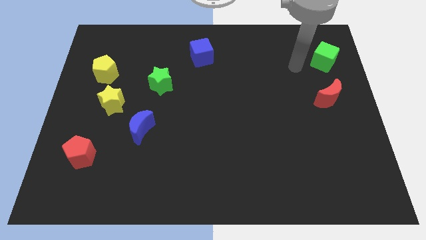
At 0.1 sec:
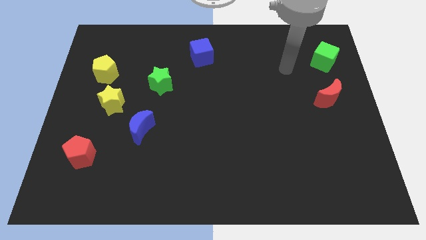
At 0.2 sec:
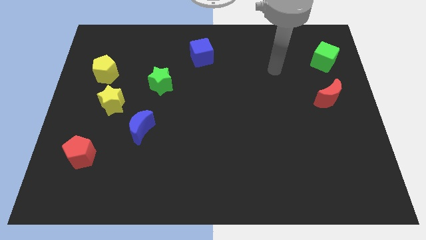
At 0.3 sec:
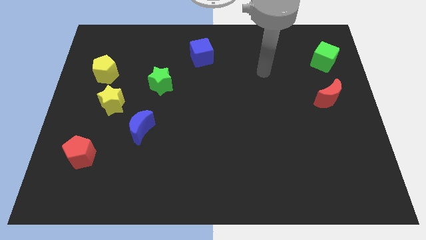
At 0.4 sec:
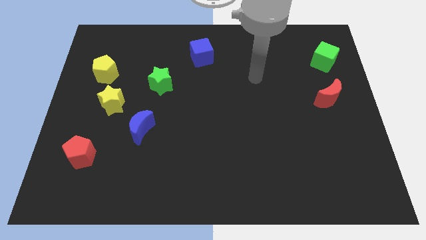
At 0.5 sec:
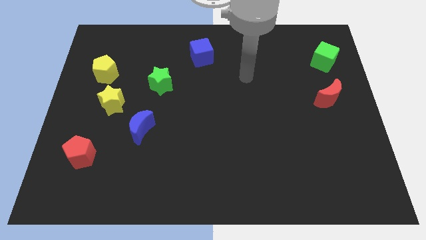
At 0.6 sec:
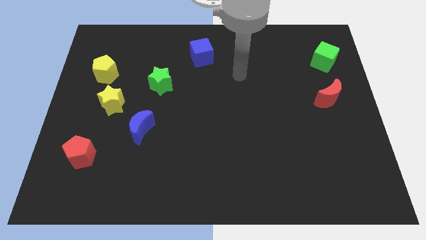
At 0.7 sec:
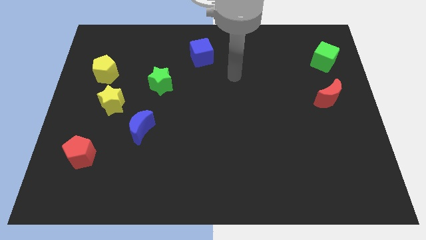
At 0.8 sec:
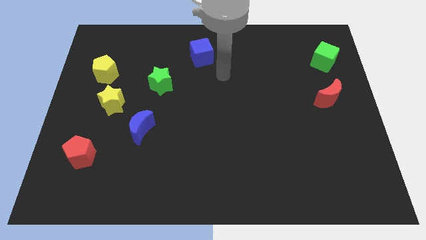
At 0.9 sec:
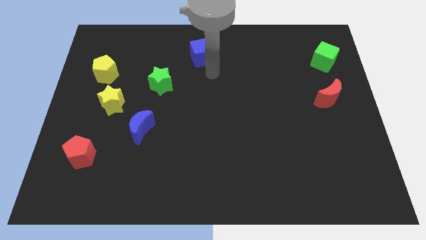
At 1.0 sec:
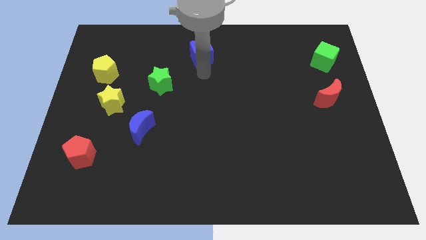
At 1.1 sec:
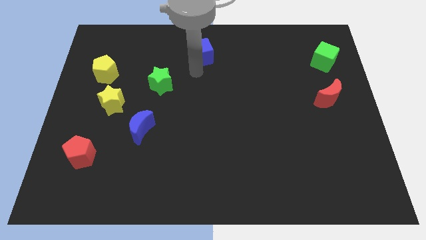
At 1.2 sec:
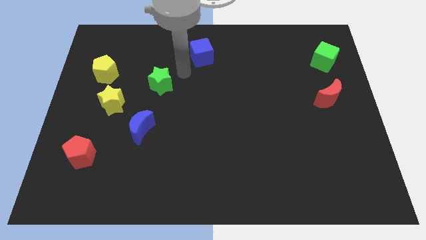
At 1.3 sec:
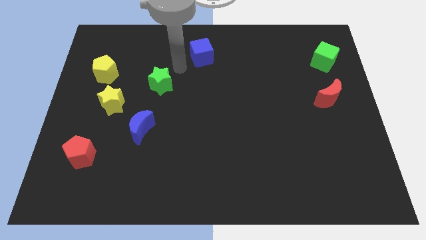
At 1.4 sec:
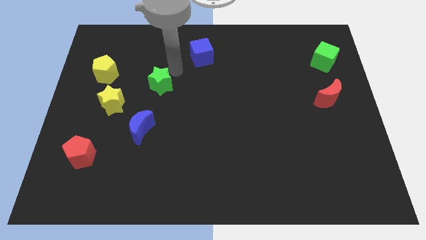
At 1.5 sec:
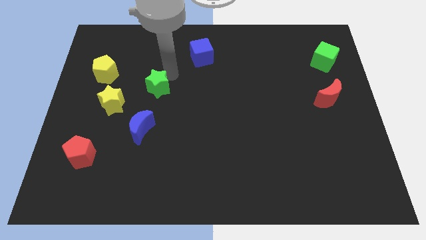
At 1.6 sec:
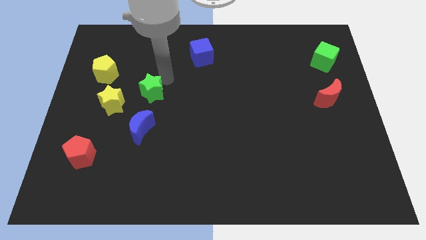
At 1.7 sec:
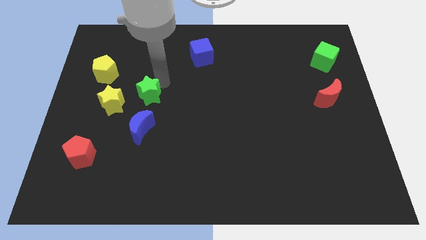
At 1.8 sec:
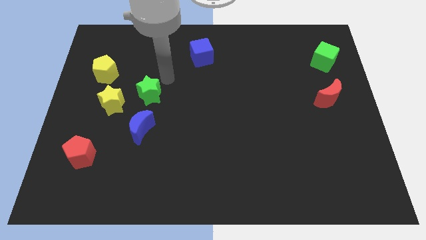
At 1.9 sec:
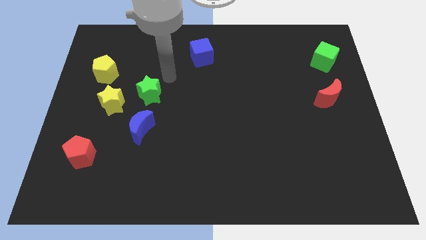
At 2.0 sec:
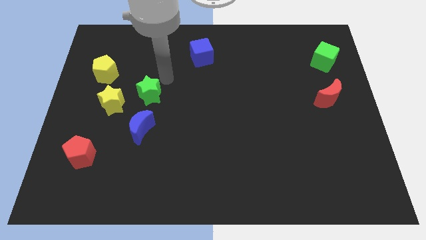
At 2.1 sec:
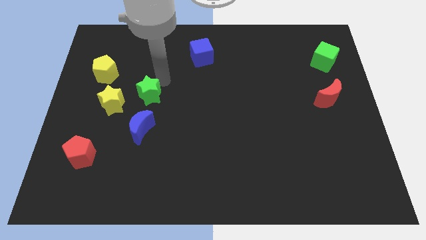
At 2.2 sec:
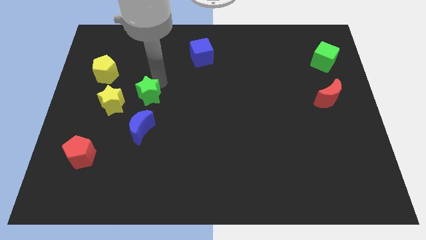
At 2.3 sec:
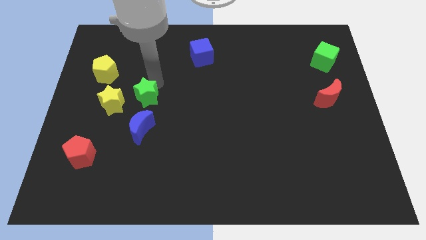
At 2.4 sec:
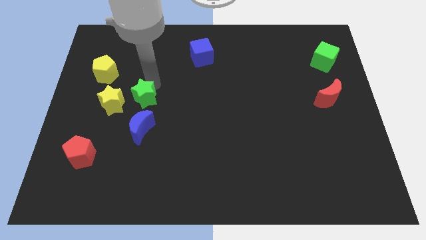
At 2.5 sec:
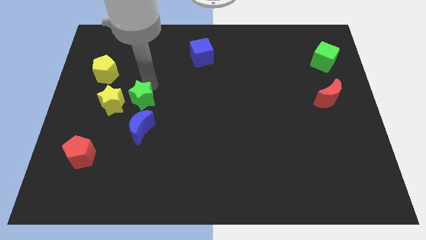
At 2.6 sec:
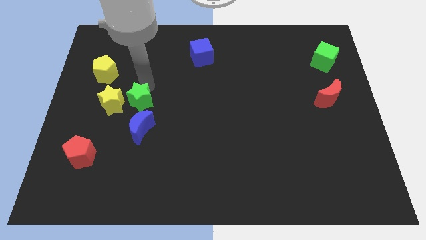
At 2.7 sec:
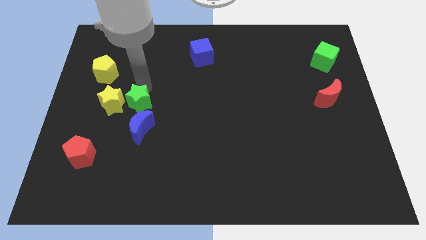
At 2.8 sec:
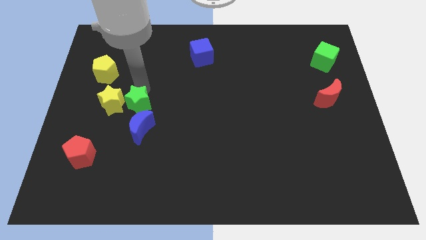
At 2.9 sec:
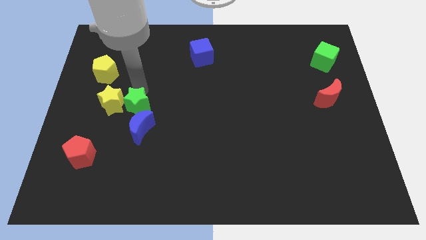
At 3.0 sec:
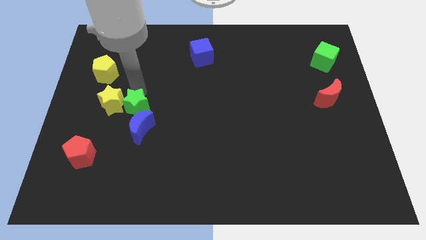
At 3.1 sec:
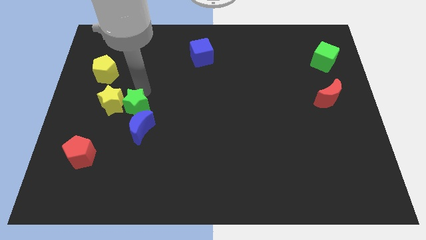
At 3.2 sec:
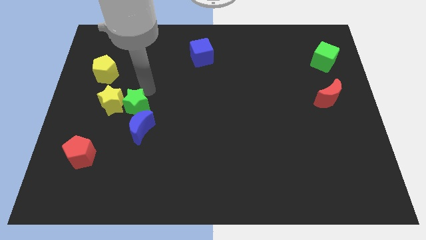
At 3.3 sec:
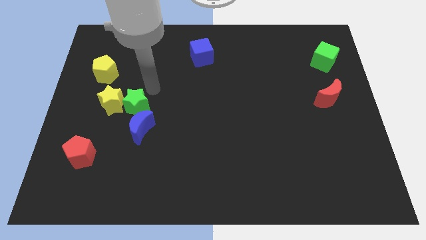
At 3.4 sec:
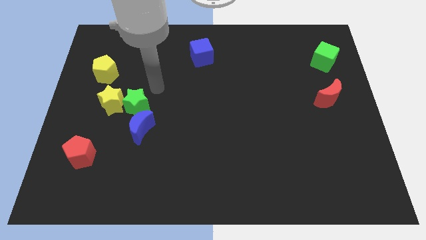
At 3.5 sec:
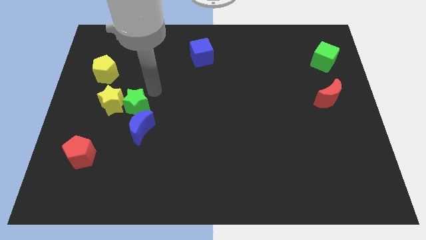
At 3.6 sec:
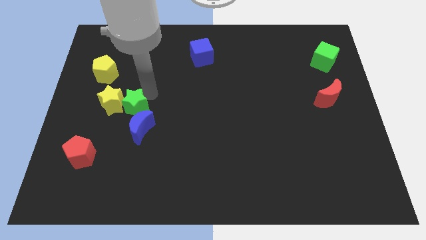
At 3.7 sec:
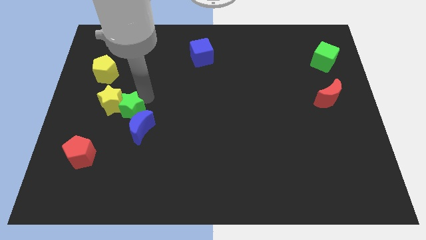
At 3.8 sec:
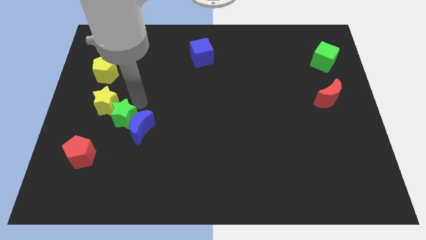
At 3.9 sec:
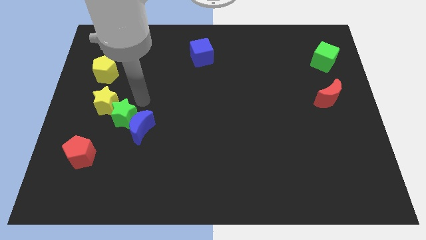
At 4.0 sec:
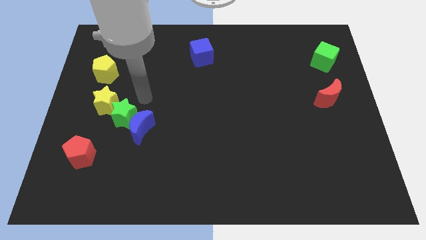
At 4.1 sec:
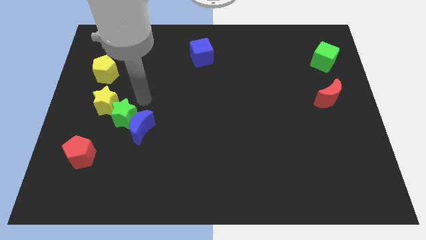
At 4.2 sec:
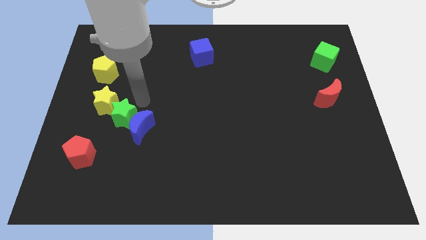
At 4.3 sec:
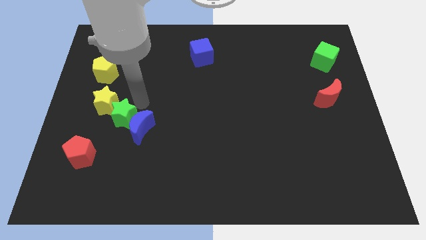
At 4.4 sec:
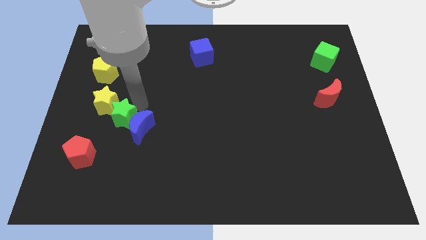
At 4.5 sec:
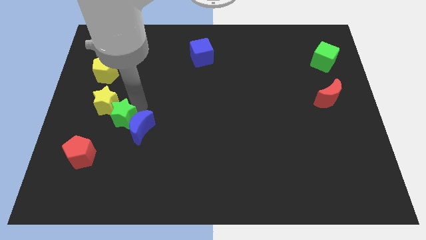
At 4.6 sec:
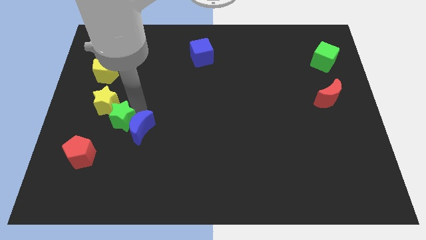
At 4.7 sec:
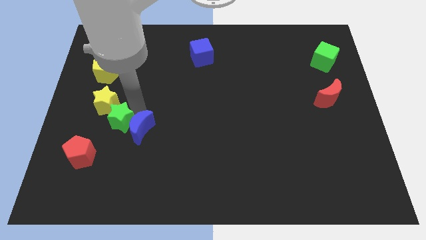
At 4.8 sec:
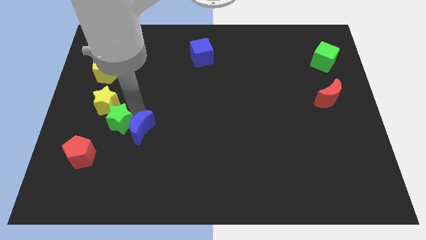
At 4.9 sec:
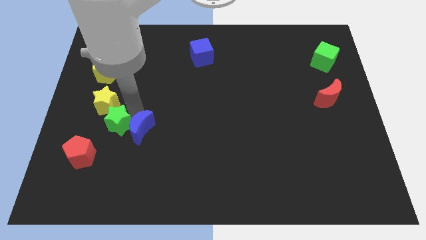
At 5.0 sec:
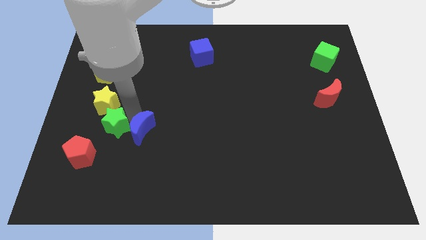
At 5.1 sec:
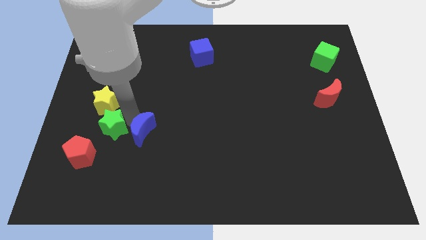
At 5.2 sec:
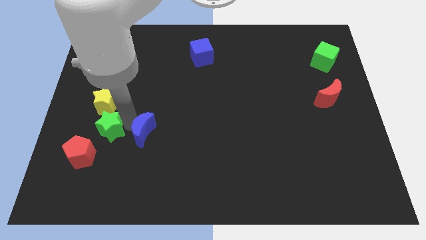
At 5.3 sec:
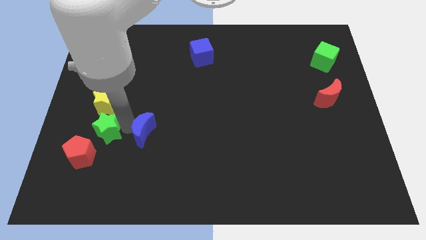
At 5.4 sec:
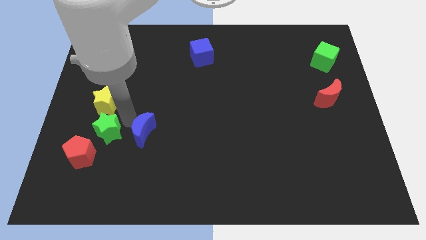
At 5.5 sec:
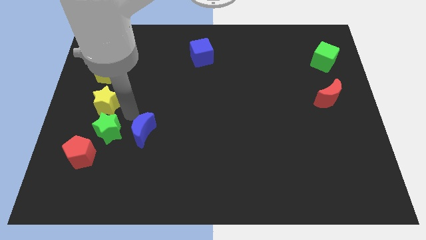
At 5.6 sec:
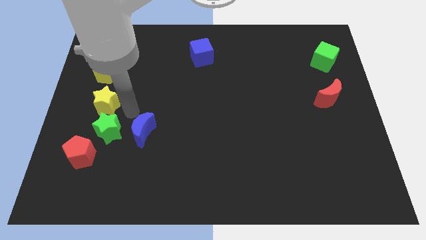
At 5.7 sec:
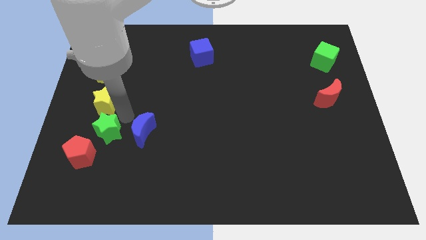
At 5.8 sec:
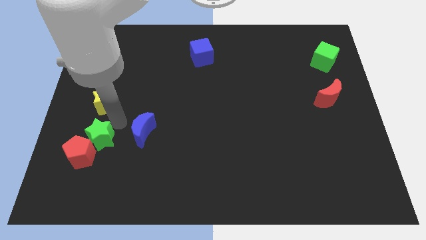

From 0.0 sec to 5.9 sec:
put the green star next to the red pentagon

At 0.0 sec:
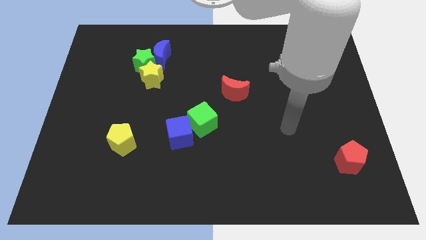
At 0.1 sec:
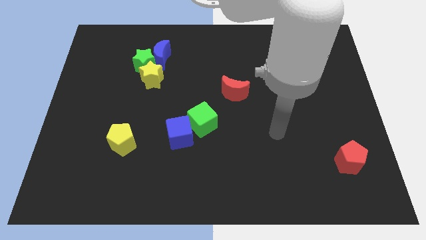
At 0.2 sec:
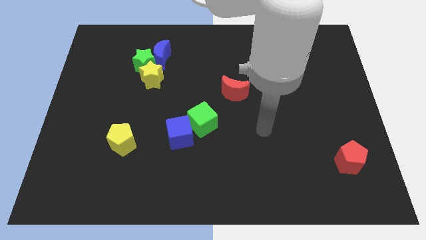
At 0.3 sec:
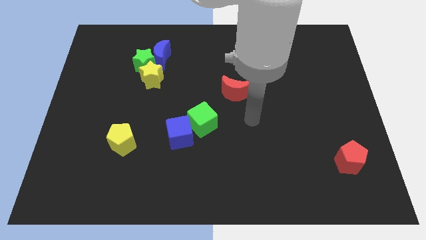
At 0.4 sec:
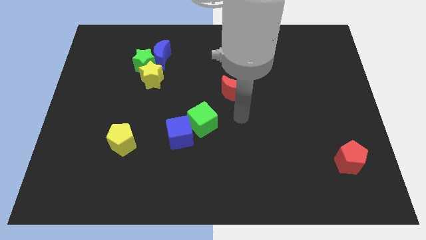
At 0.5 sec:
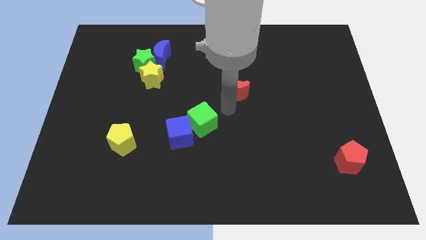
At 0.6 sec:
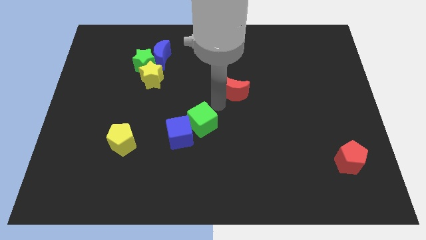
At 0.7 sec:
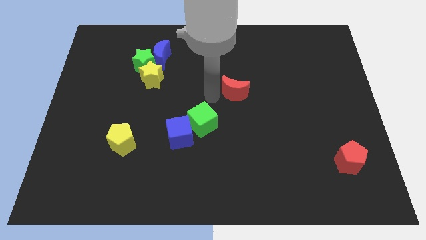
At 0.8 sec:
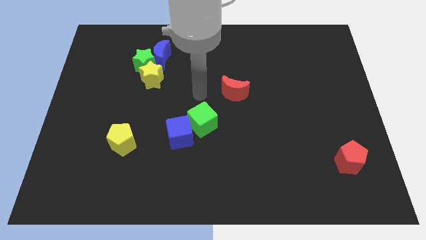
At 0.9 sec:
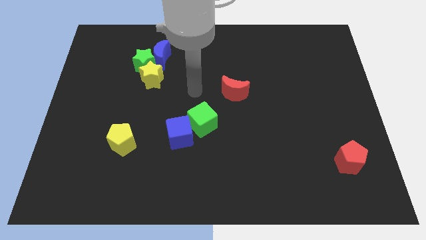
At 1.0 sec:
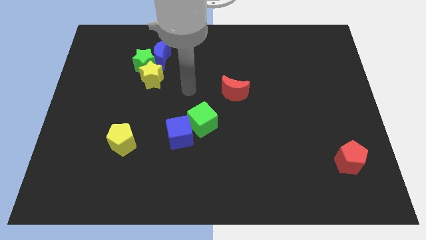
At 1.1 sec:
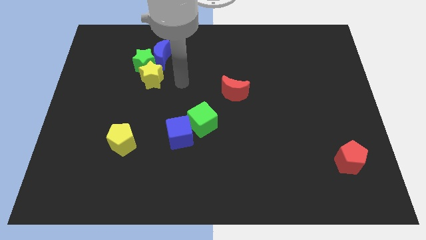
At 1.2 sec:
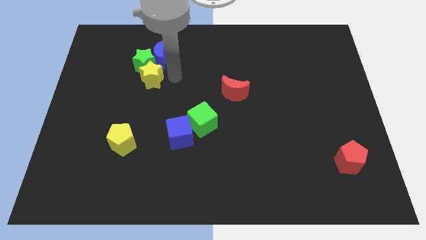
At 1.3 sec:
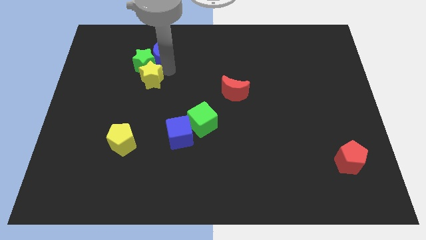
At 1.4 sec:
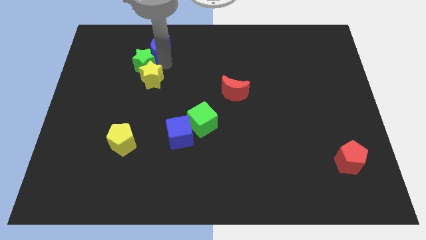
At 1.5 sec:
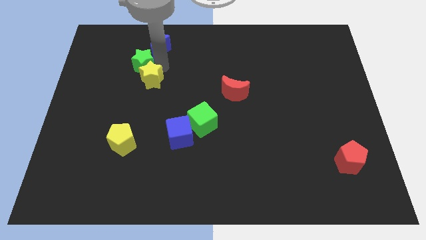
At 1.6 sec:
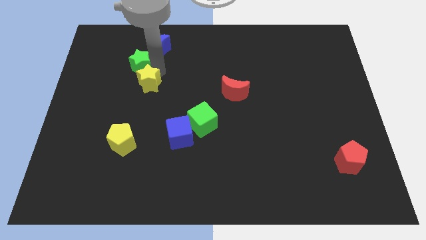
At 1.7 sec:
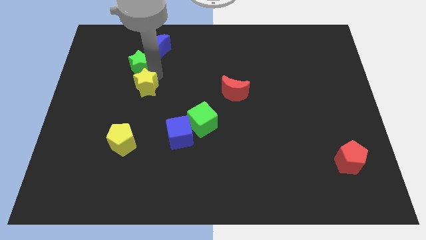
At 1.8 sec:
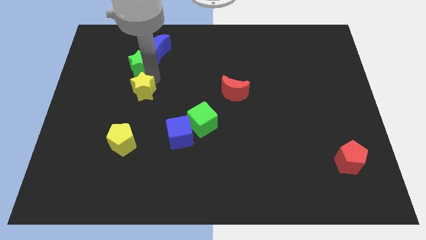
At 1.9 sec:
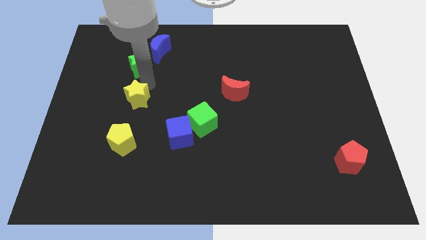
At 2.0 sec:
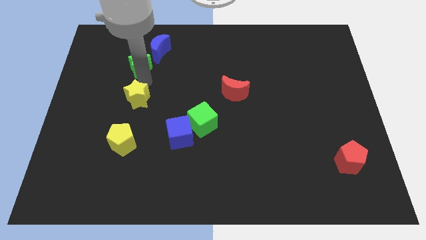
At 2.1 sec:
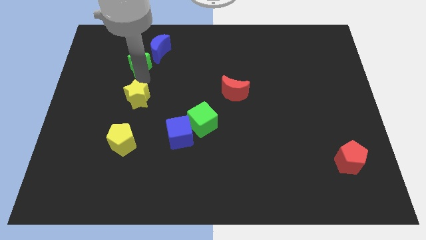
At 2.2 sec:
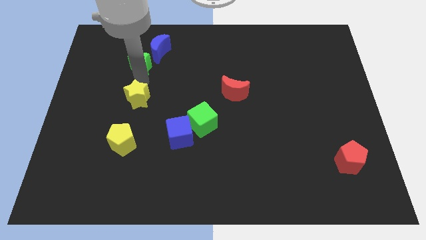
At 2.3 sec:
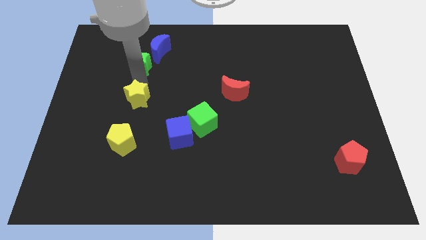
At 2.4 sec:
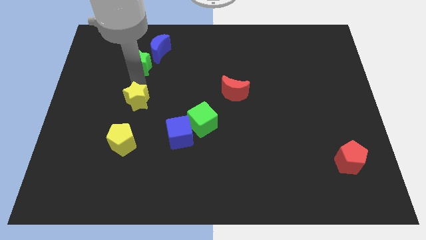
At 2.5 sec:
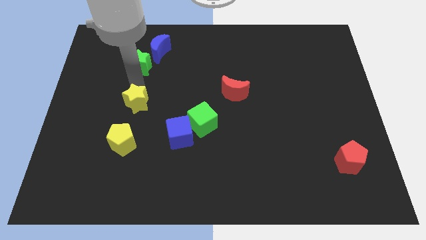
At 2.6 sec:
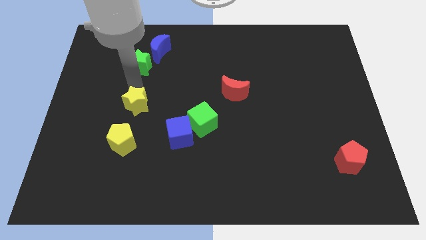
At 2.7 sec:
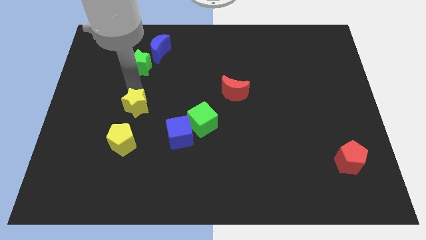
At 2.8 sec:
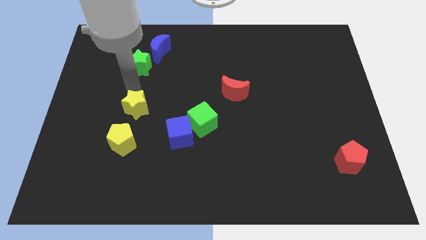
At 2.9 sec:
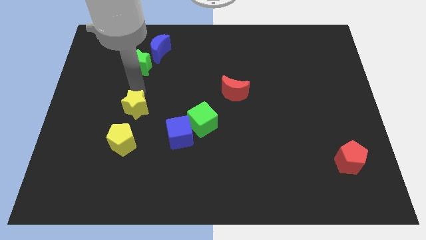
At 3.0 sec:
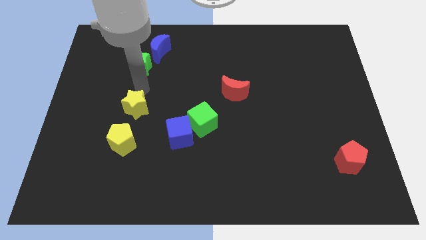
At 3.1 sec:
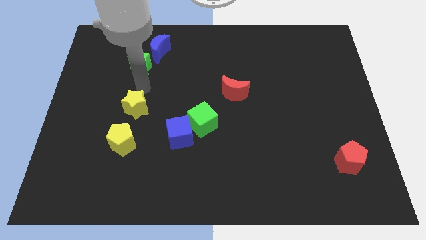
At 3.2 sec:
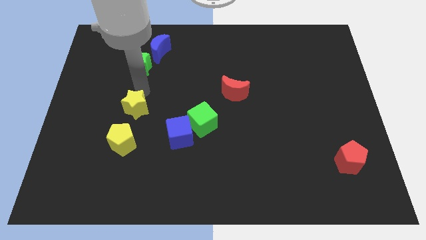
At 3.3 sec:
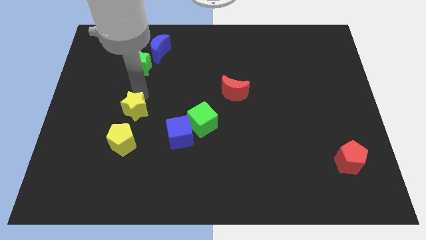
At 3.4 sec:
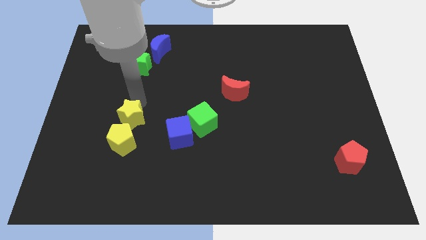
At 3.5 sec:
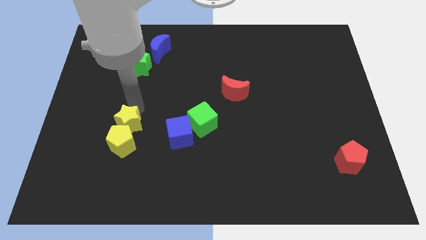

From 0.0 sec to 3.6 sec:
slide the yellow star next to the yellow pentagon
